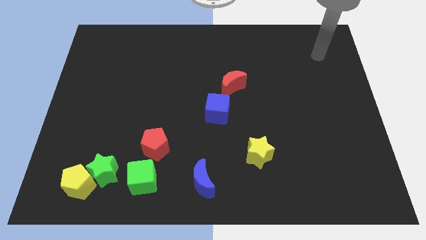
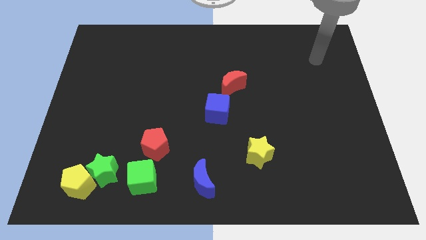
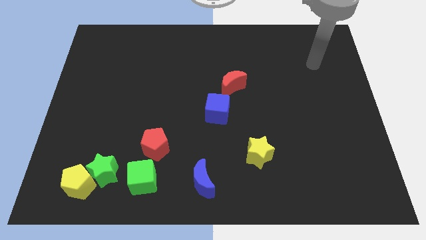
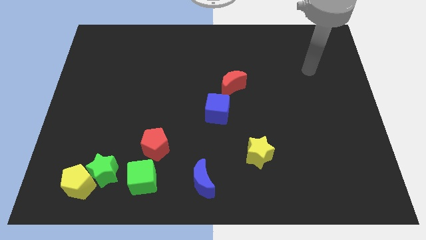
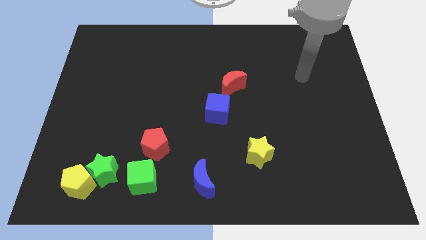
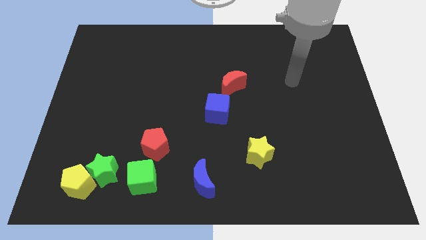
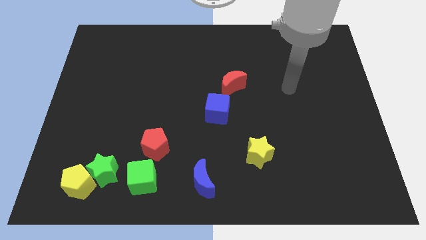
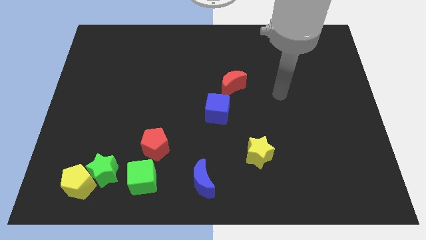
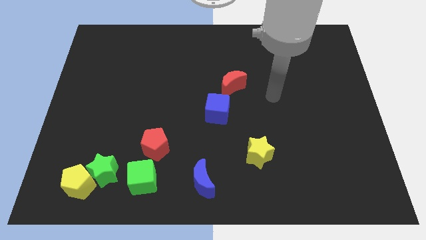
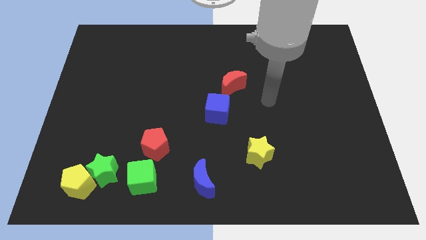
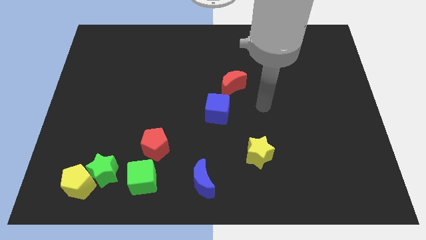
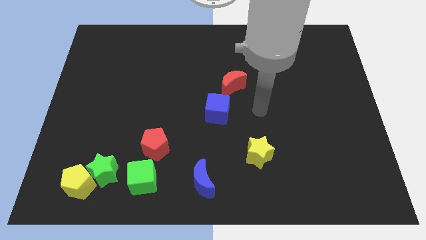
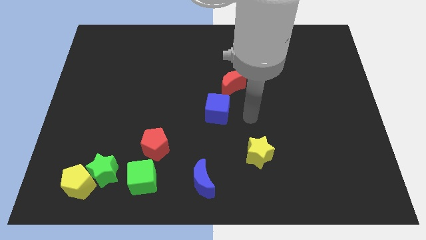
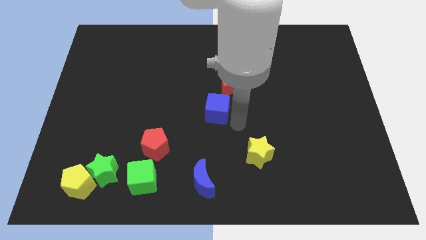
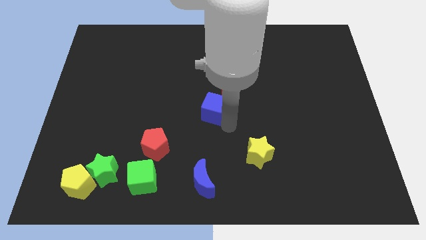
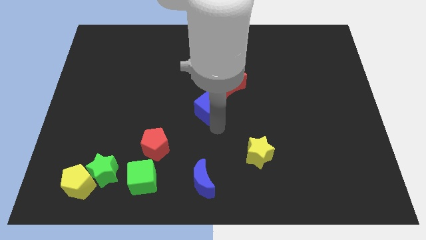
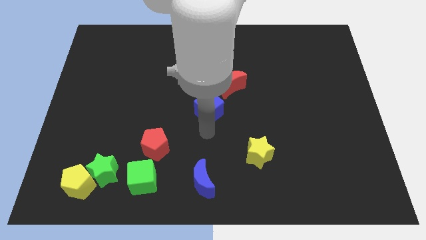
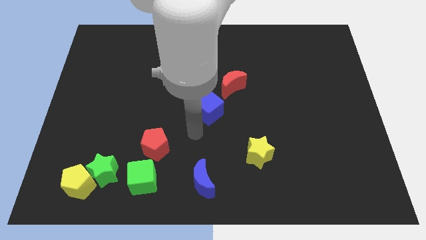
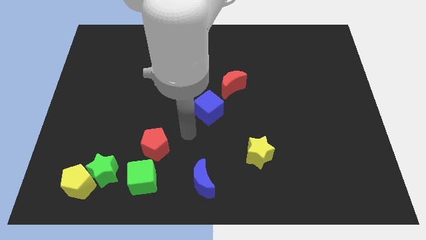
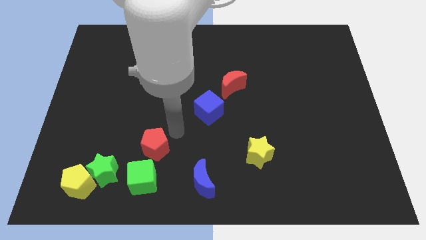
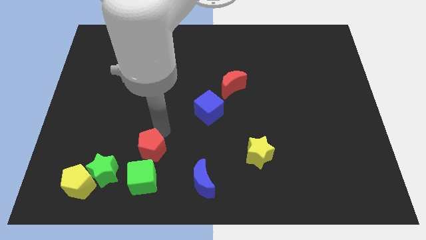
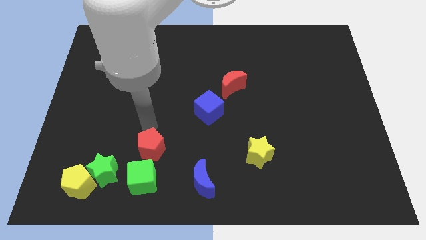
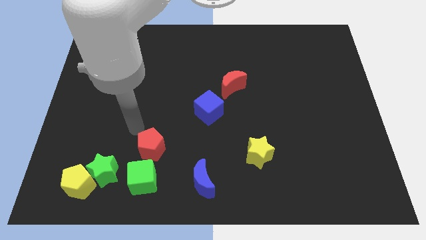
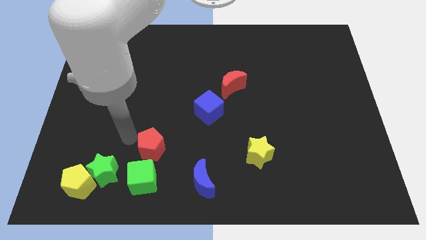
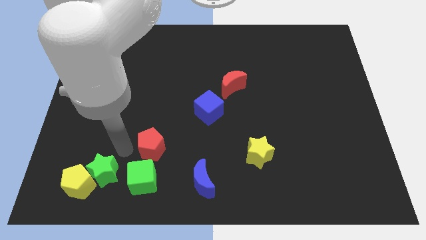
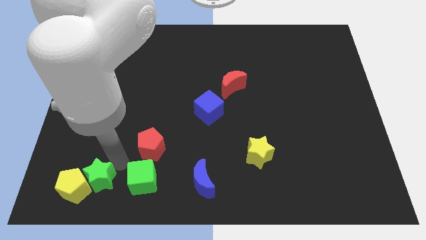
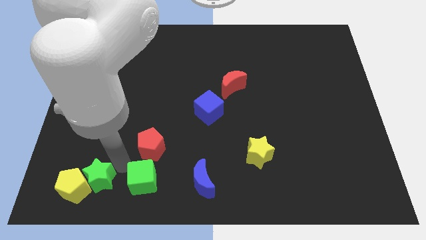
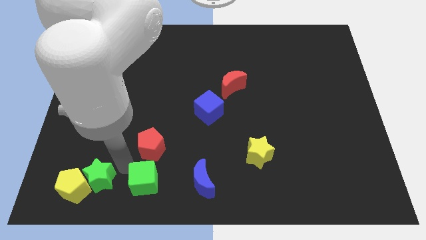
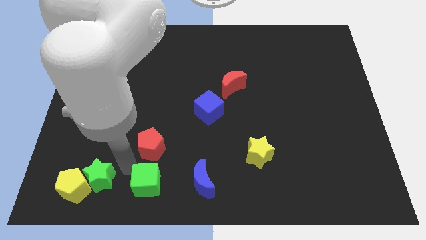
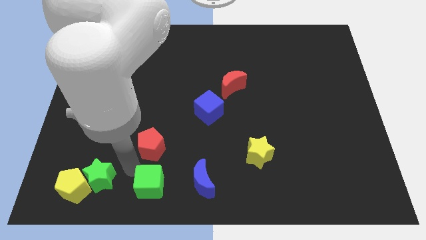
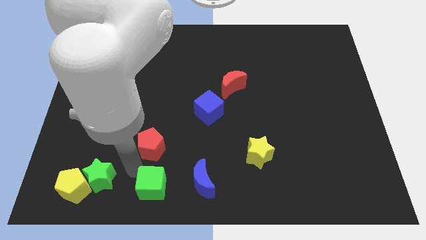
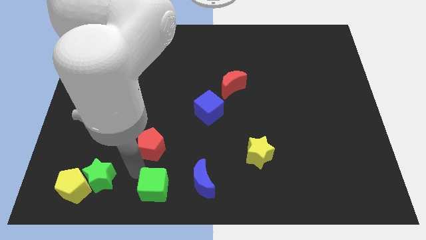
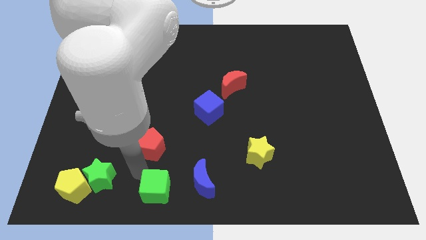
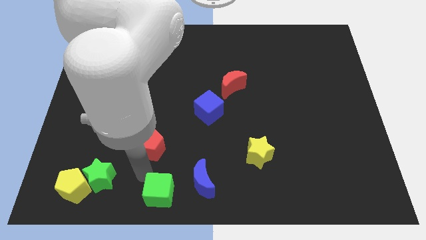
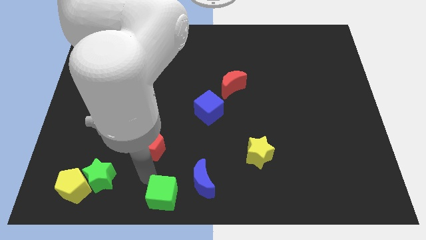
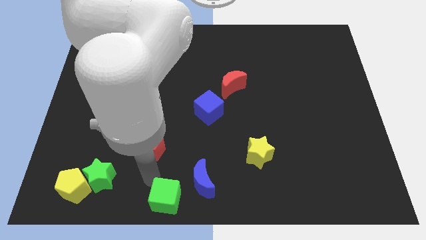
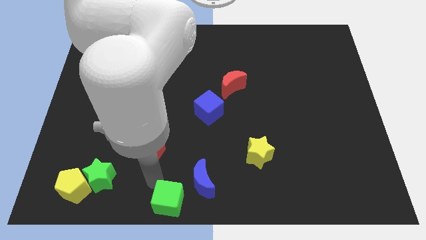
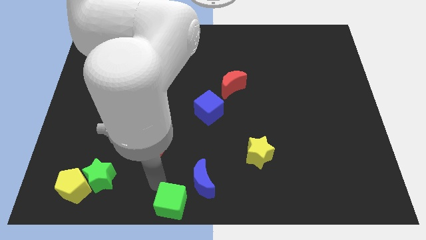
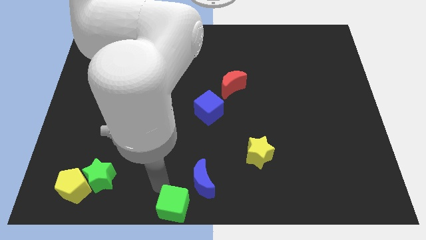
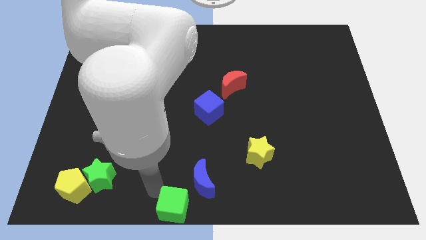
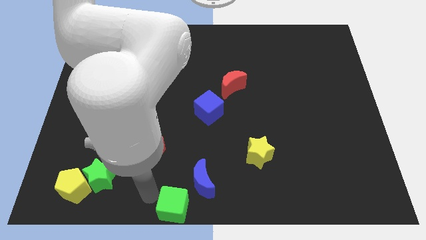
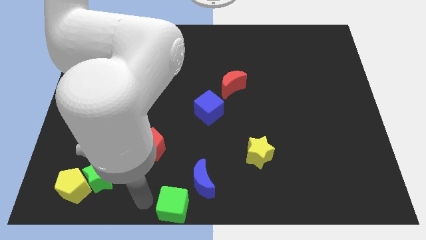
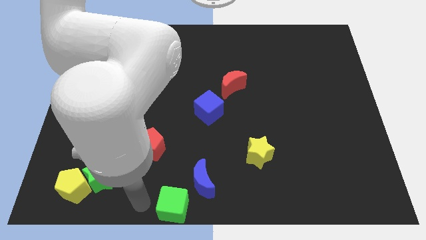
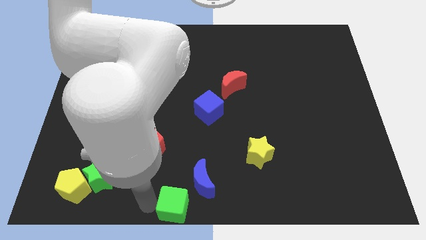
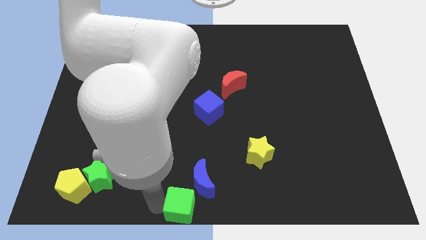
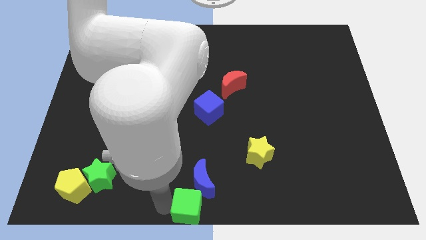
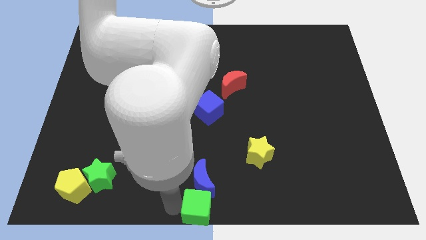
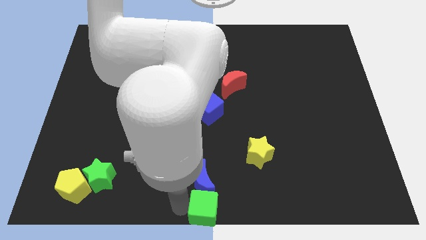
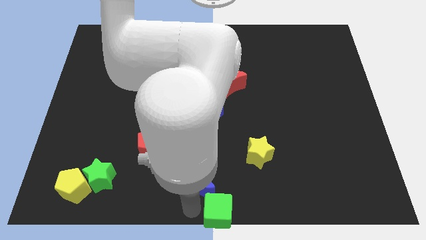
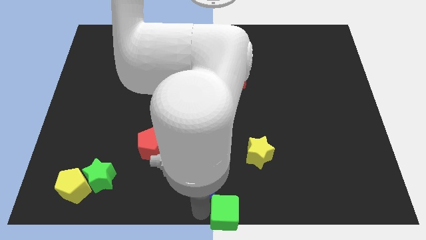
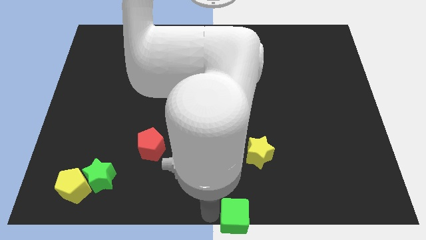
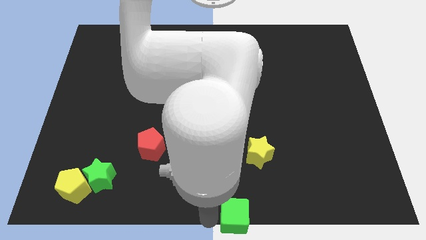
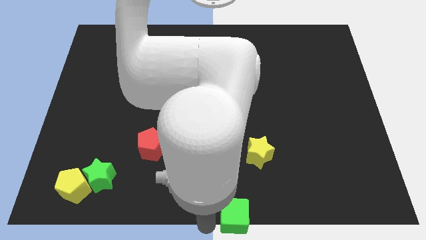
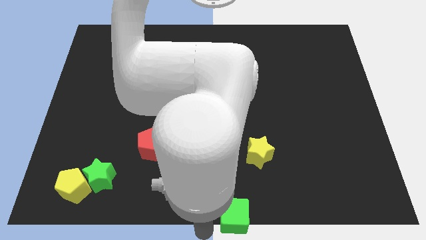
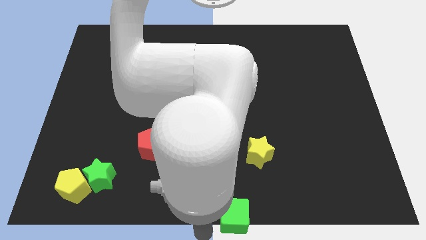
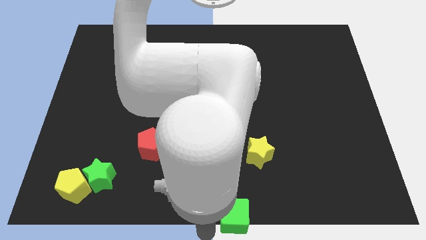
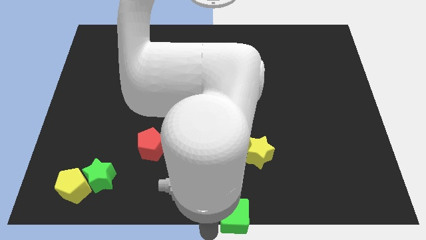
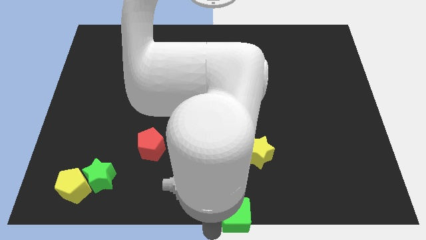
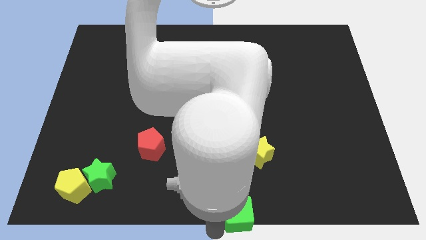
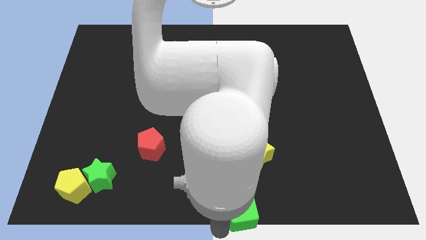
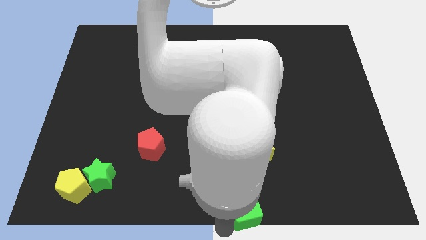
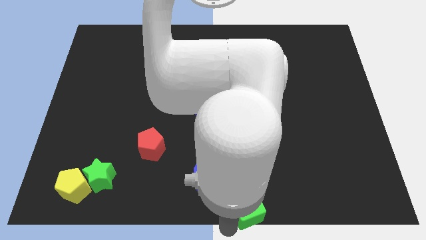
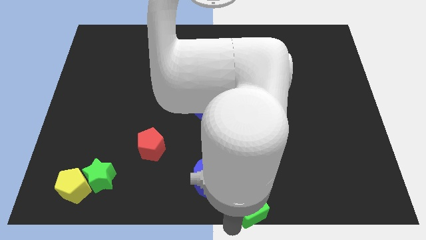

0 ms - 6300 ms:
move the green cube to the right

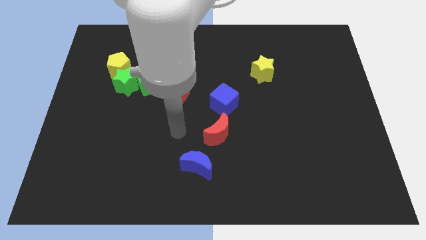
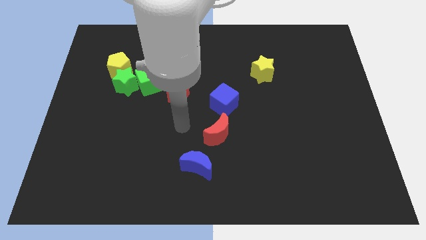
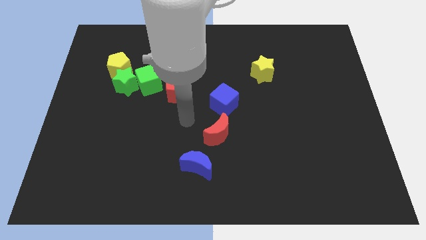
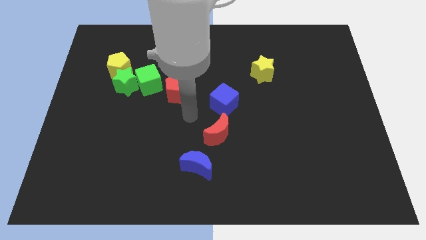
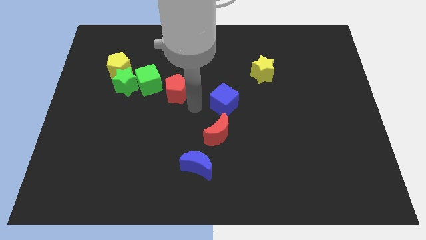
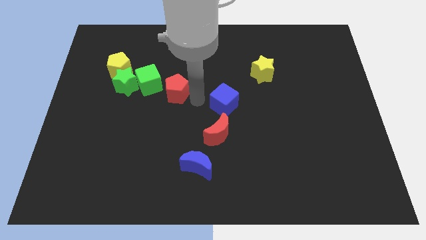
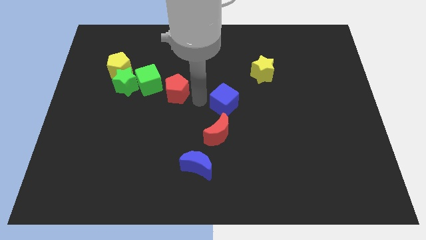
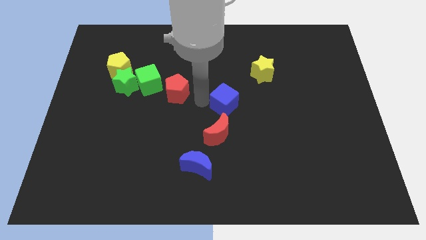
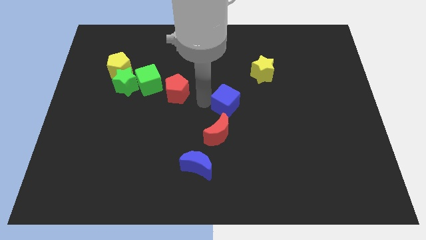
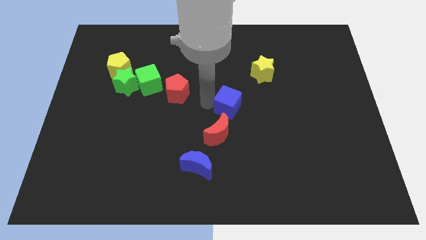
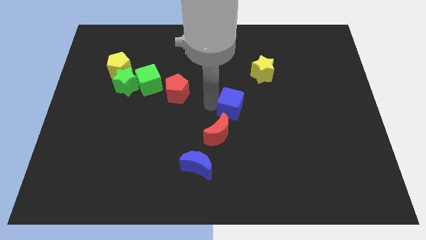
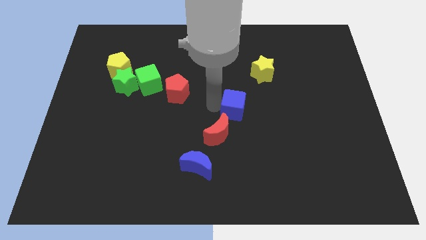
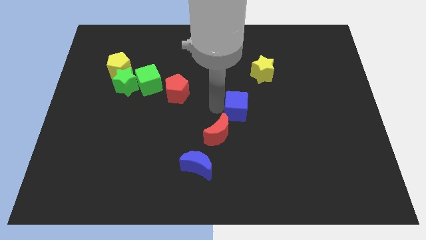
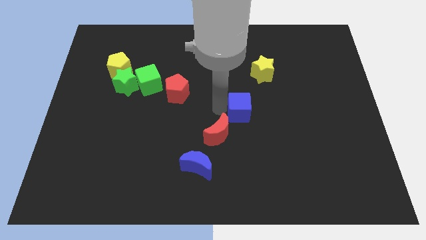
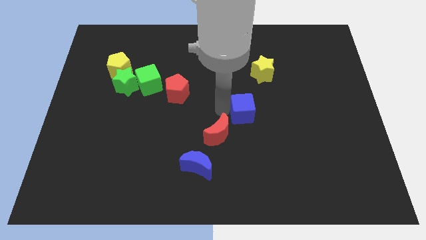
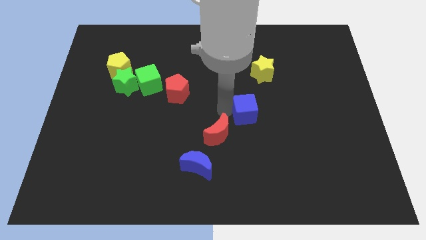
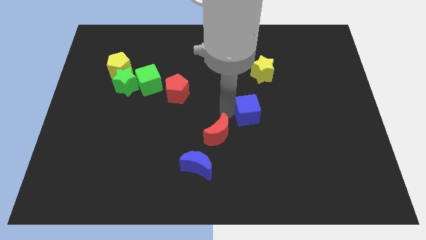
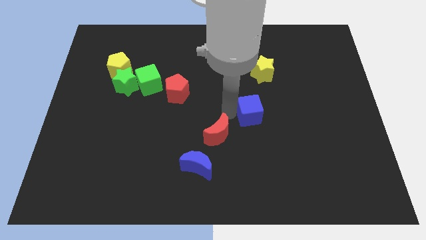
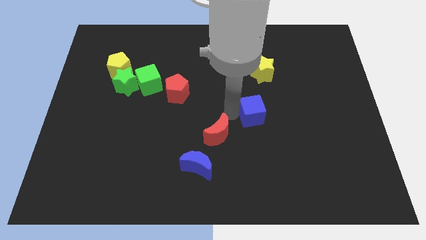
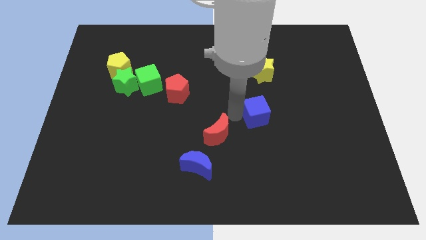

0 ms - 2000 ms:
push the blue cube right a little
